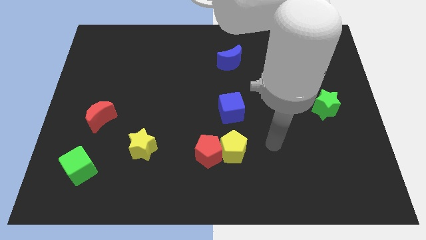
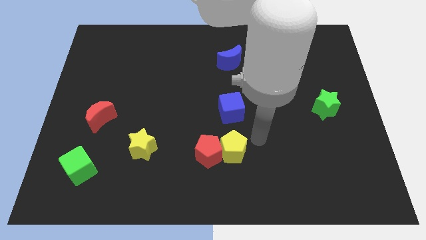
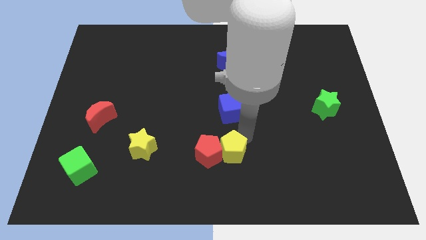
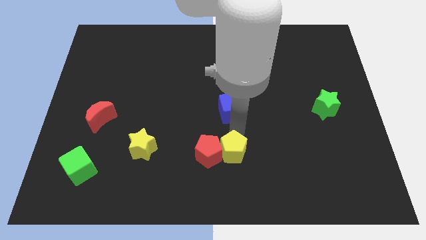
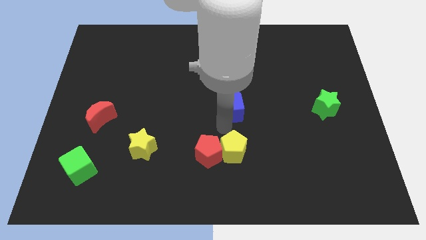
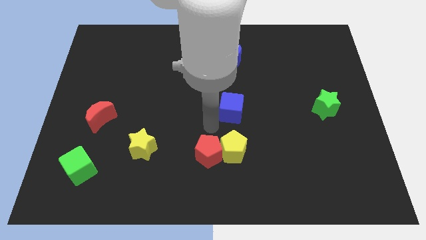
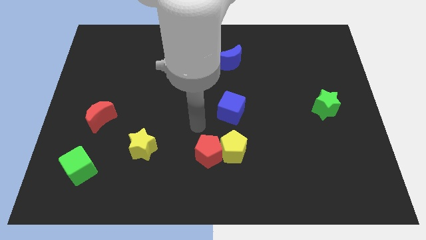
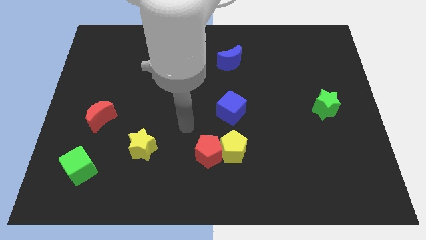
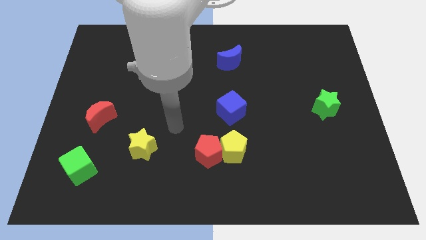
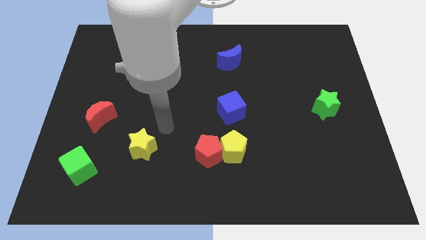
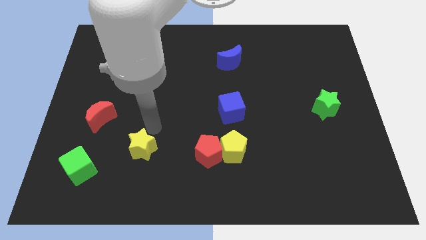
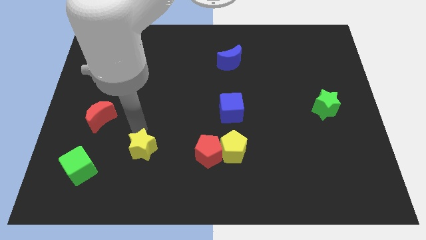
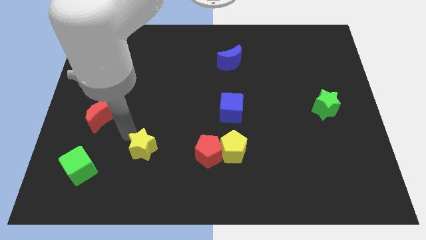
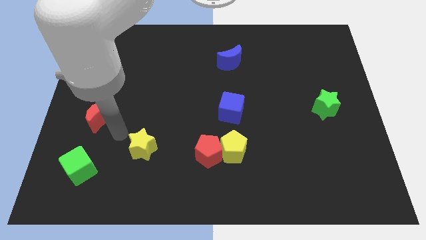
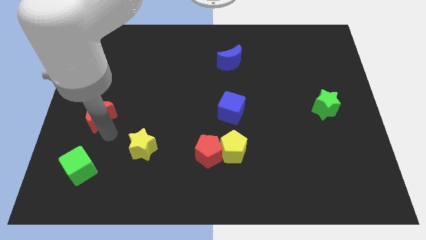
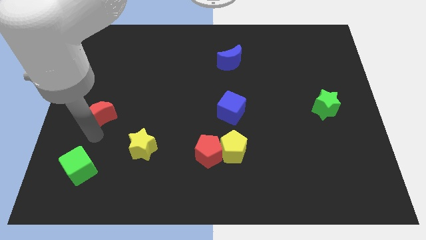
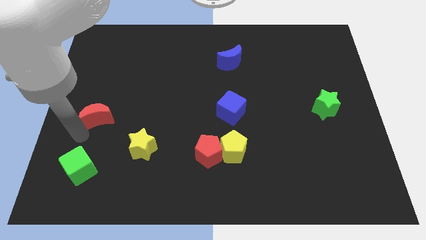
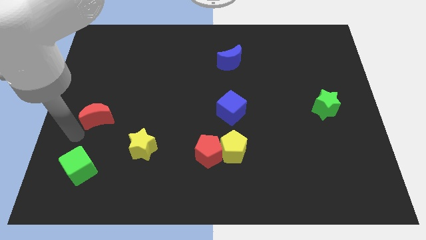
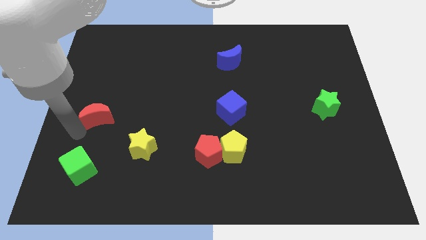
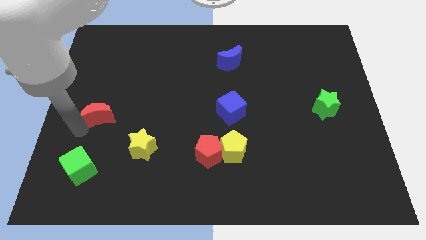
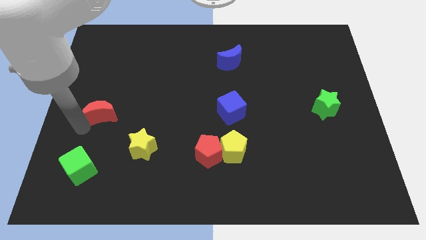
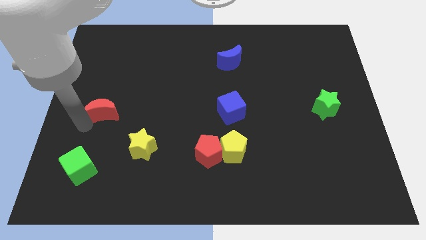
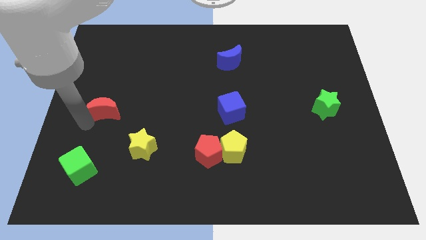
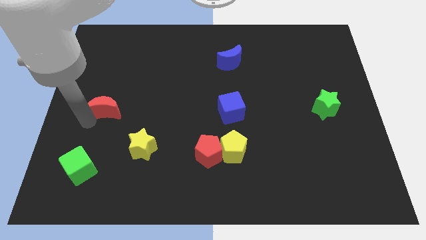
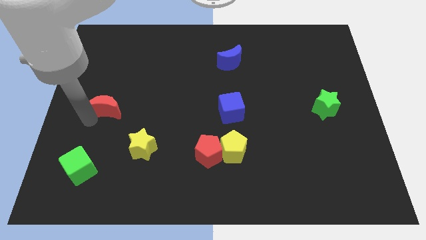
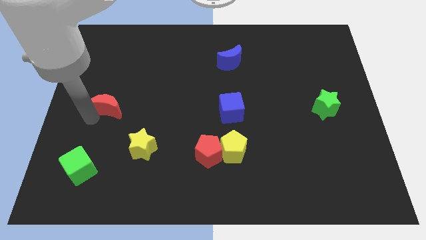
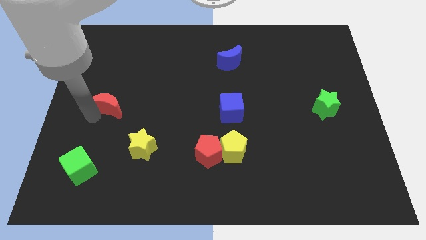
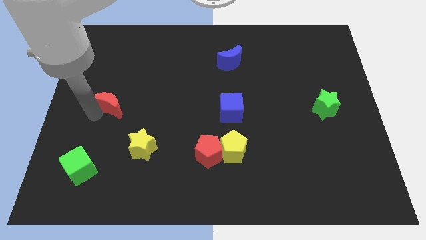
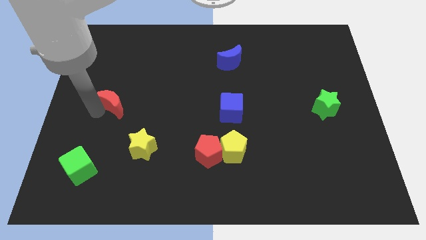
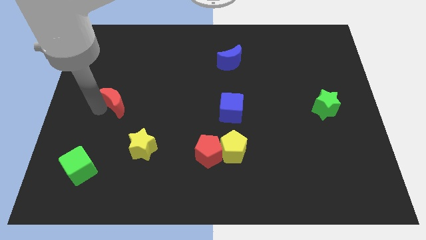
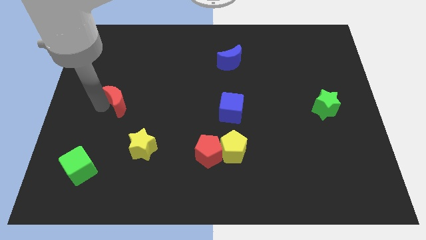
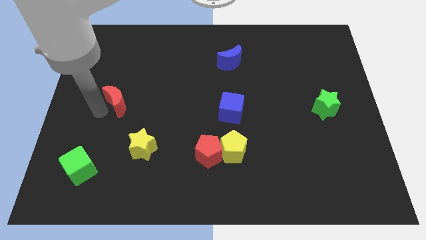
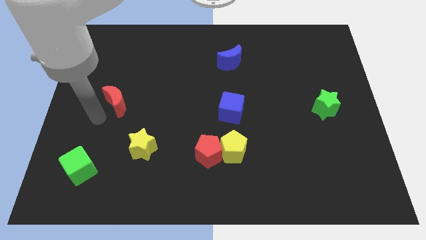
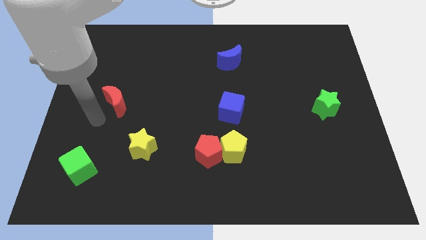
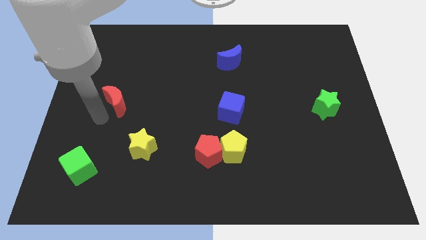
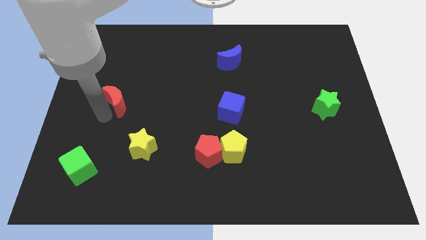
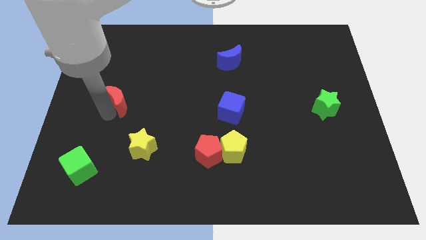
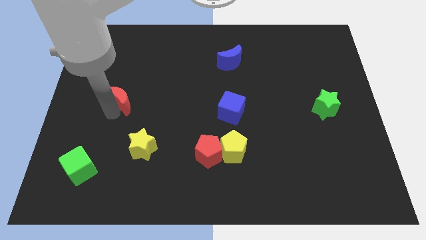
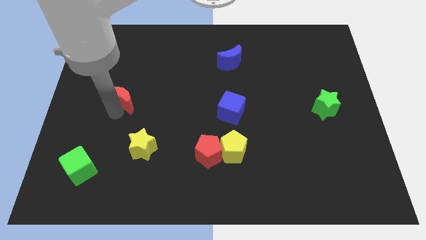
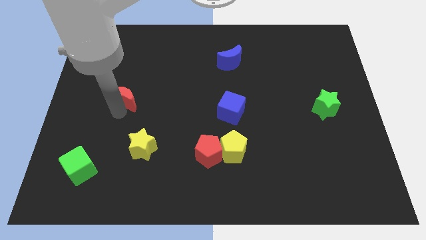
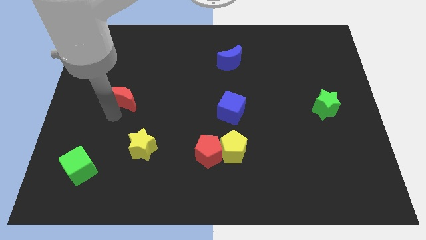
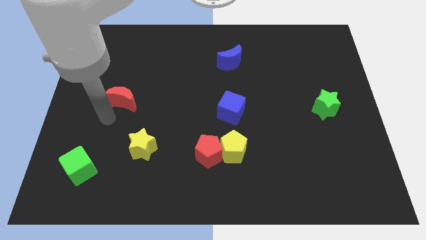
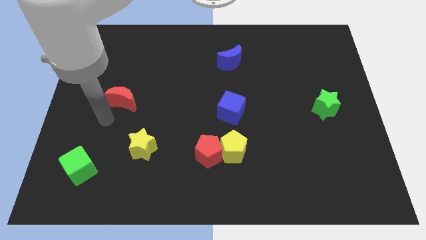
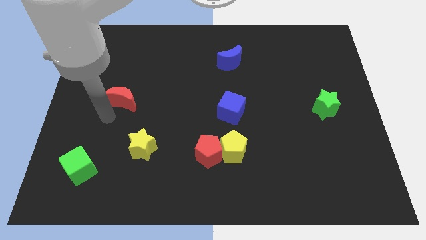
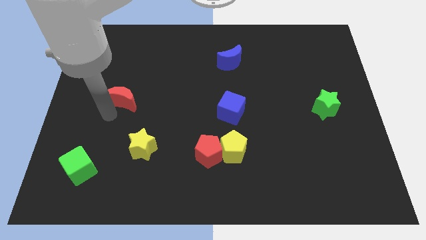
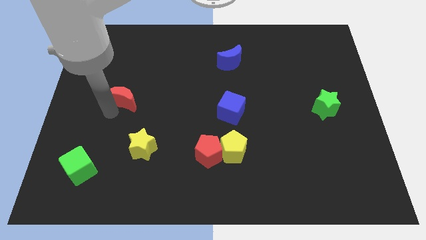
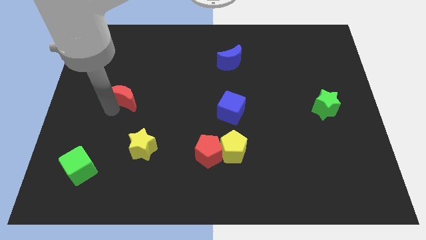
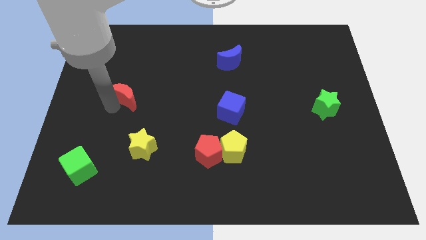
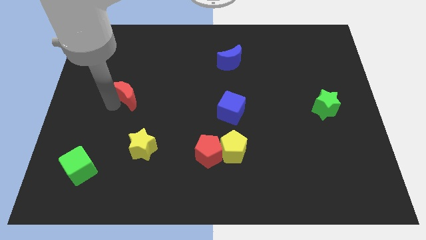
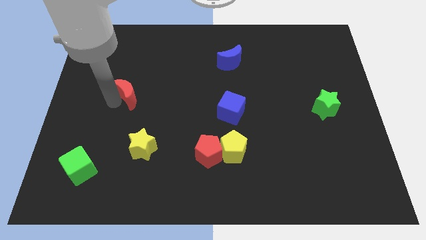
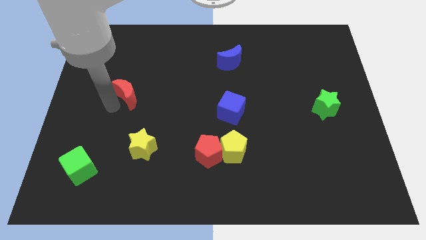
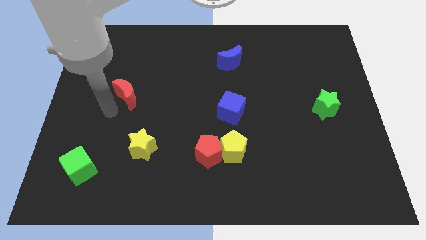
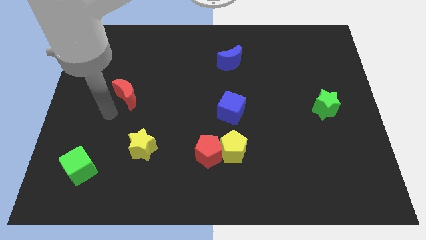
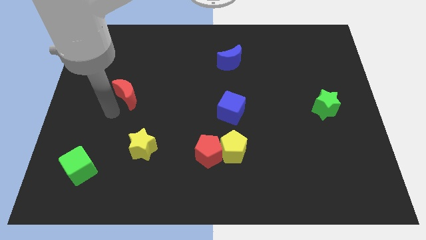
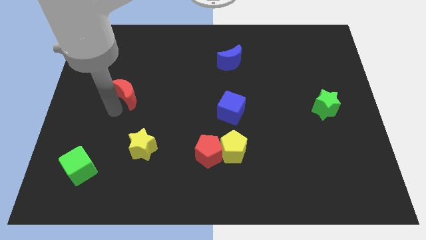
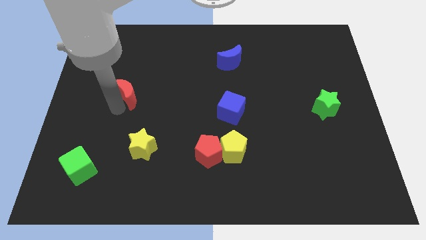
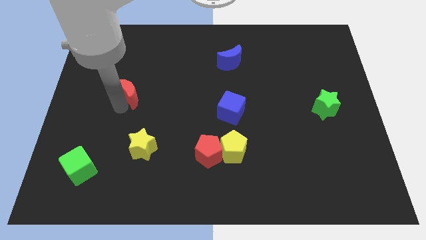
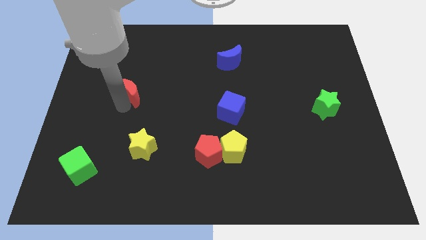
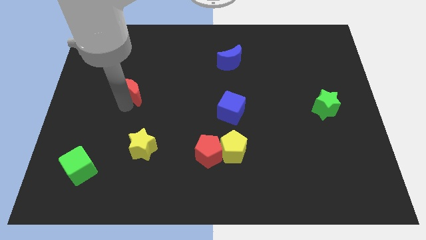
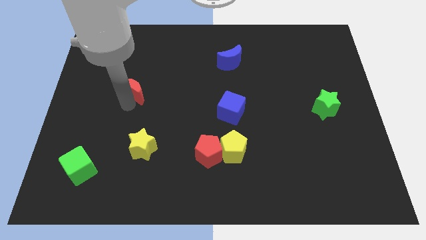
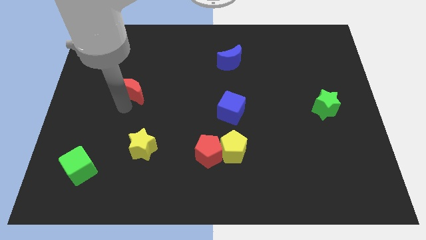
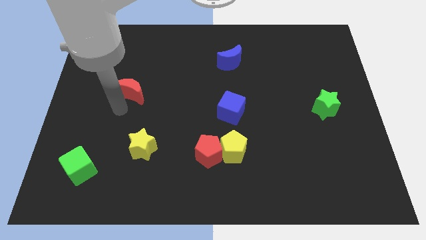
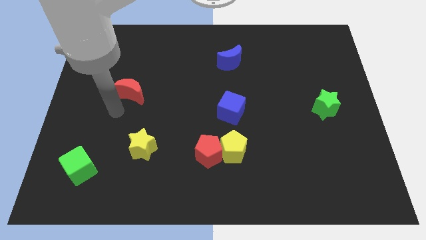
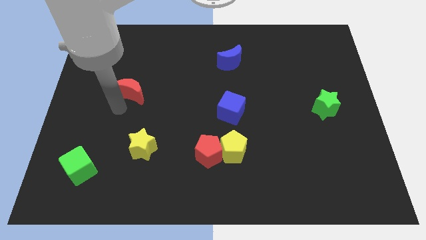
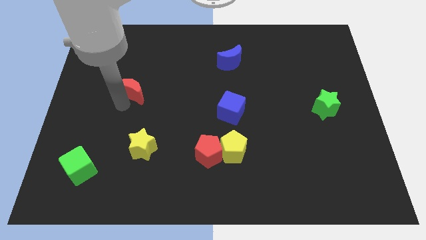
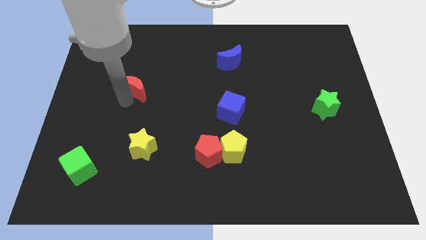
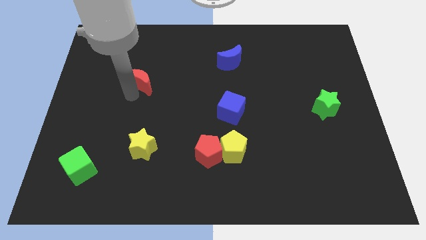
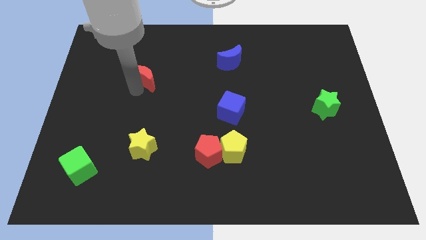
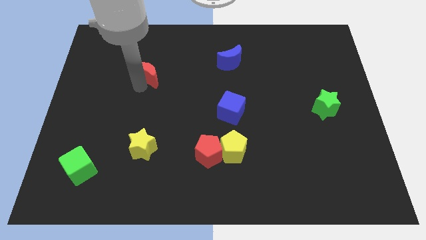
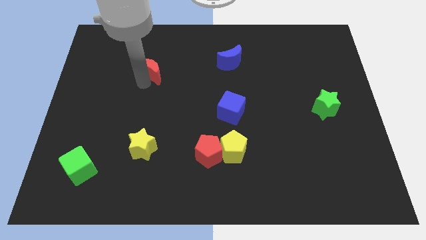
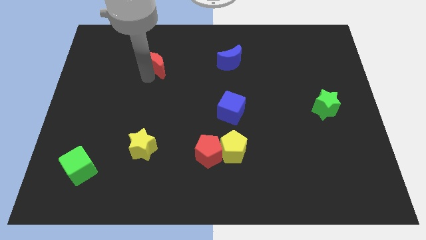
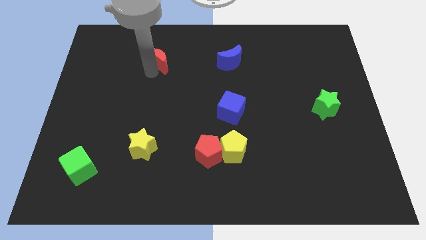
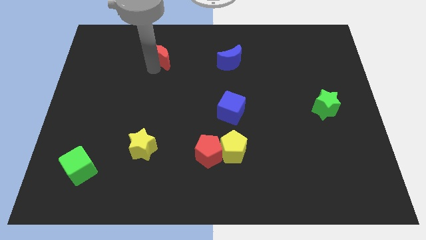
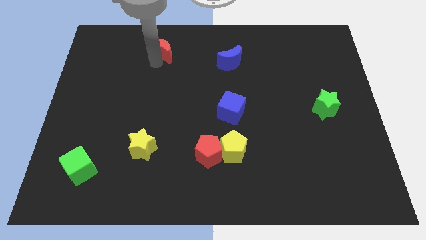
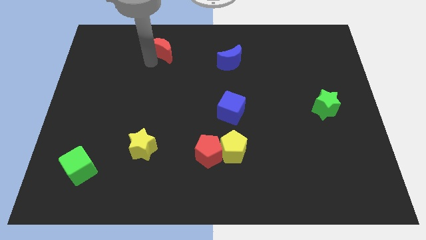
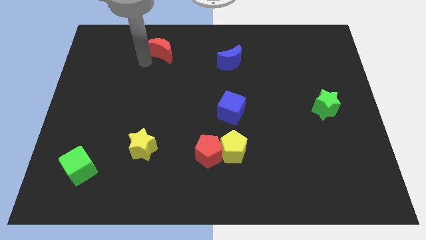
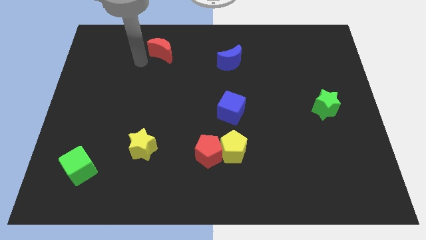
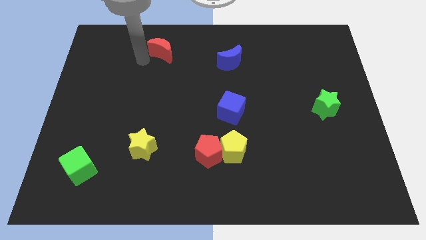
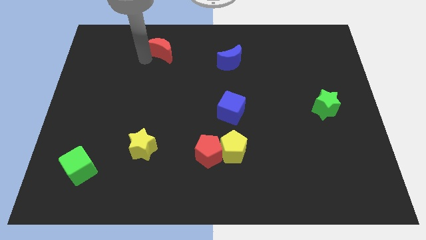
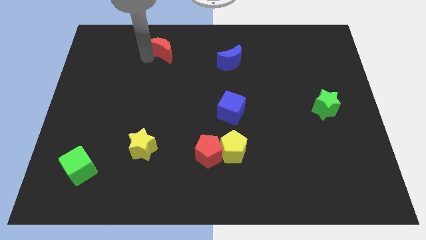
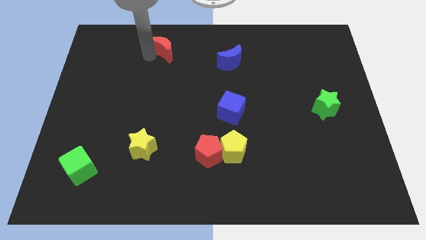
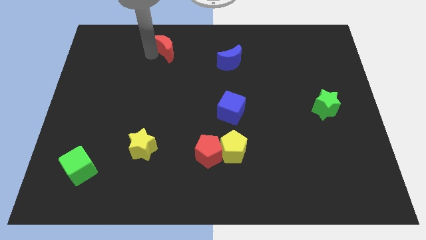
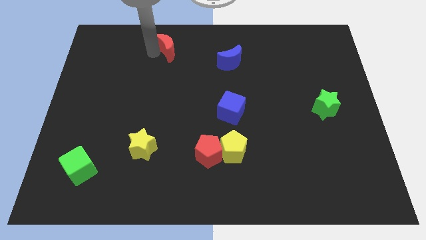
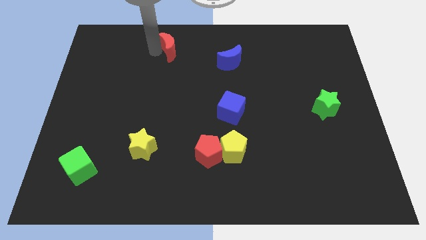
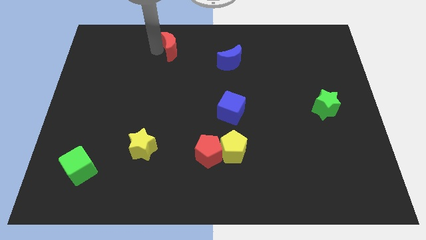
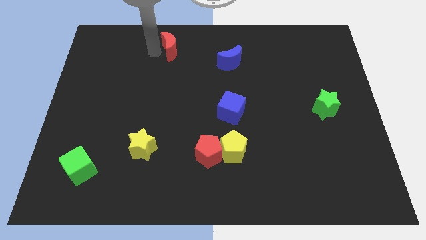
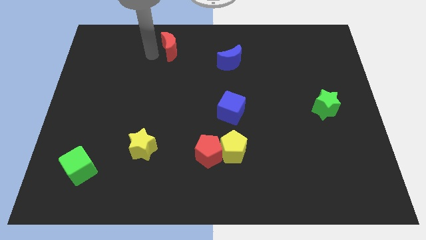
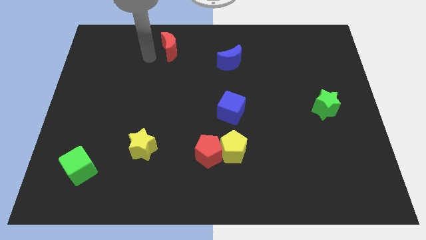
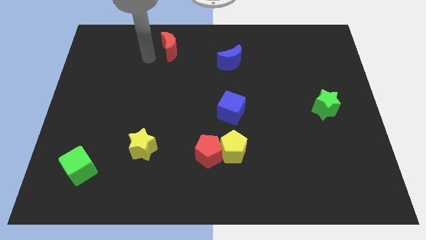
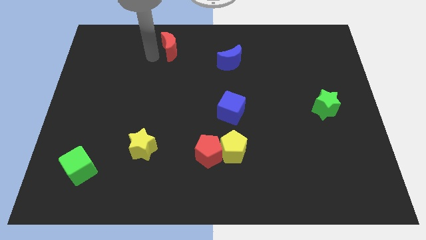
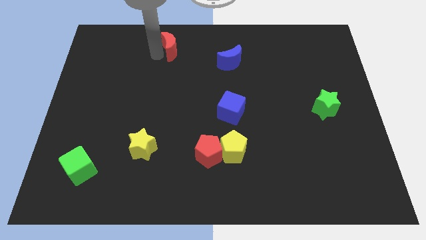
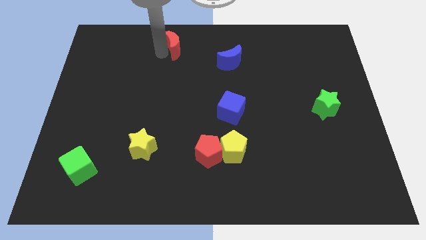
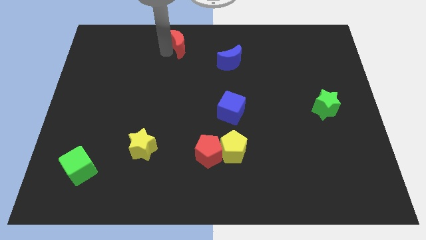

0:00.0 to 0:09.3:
push the red moon to the top
